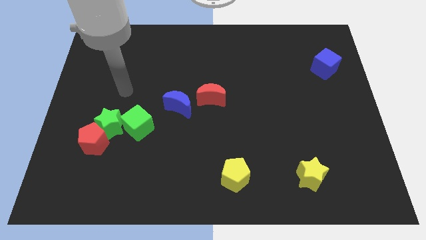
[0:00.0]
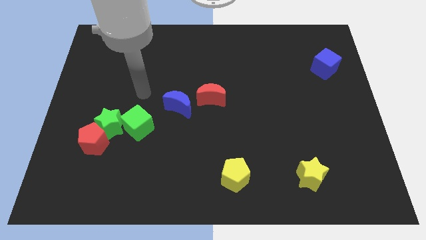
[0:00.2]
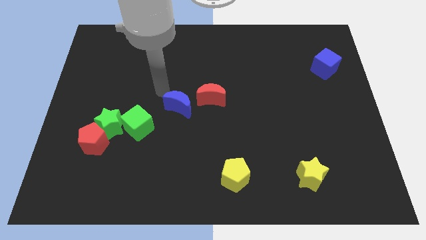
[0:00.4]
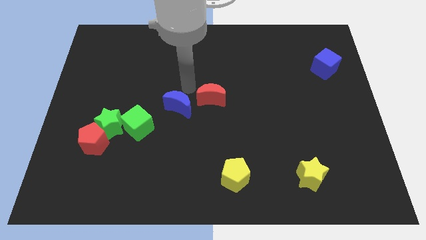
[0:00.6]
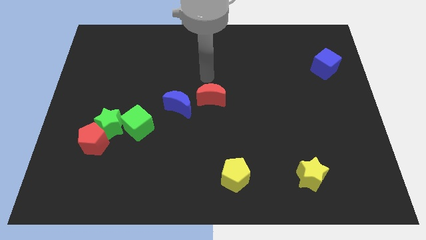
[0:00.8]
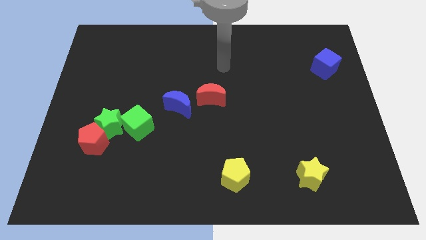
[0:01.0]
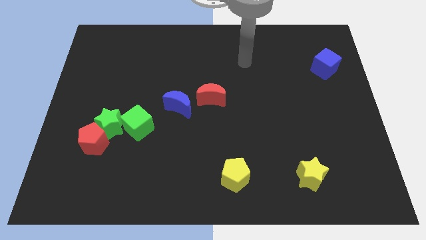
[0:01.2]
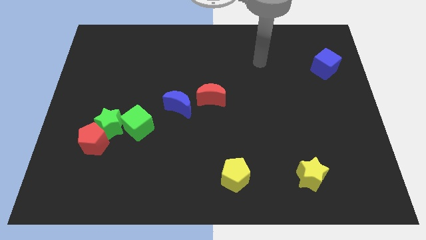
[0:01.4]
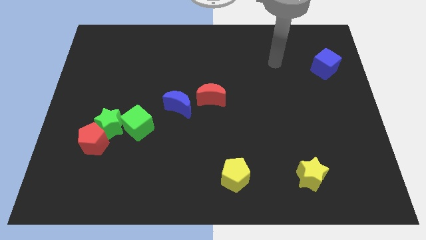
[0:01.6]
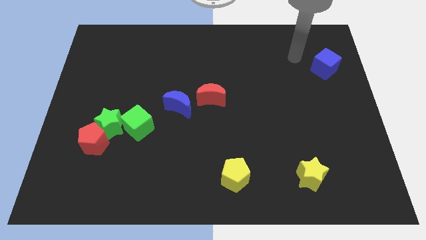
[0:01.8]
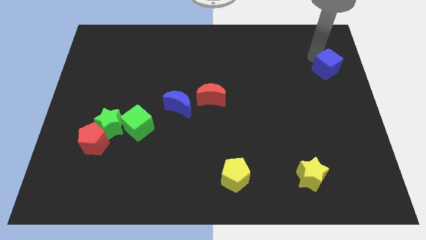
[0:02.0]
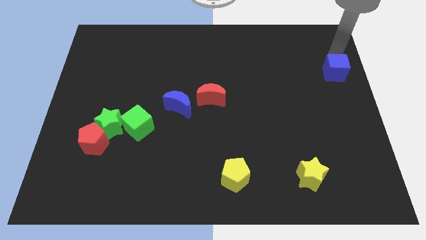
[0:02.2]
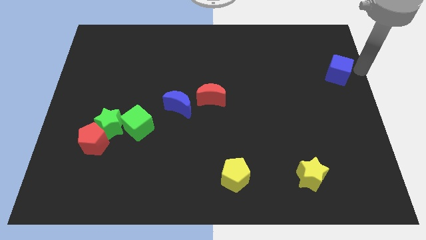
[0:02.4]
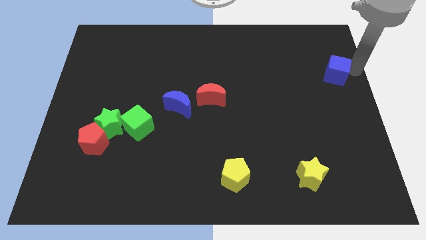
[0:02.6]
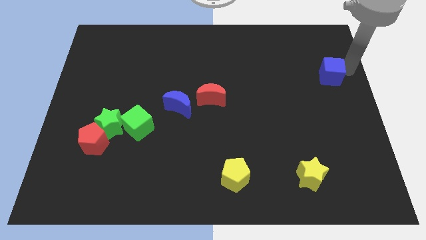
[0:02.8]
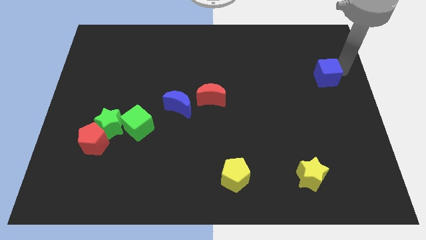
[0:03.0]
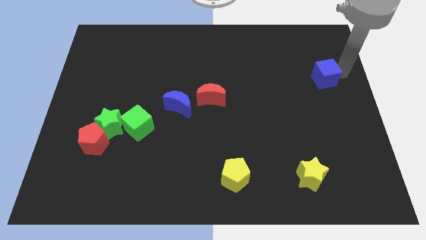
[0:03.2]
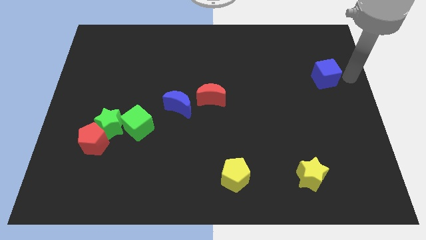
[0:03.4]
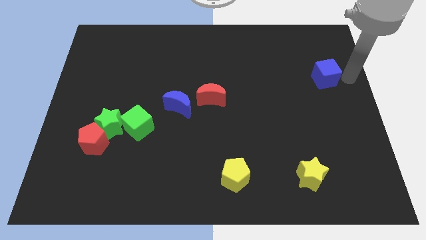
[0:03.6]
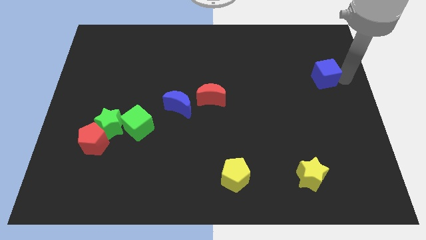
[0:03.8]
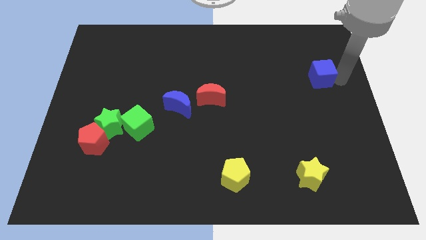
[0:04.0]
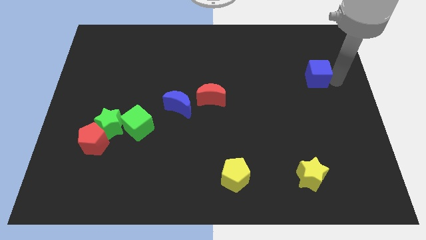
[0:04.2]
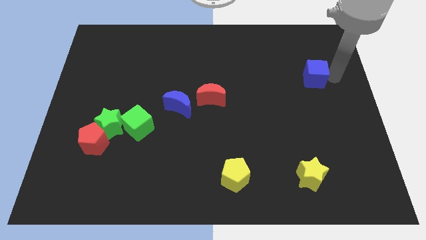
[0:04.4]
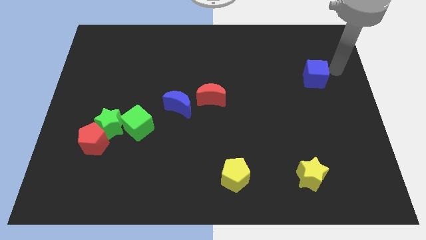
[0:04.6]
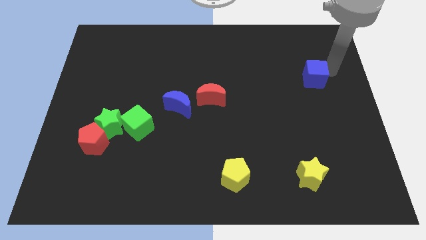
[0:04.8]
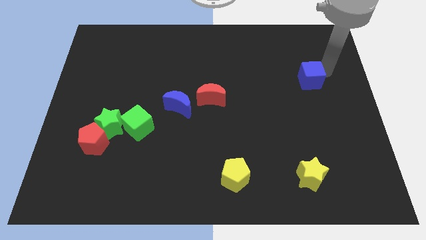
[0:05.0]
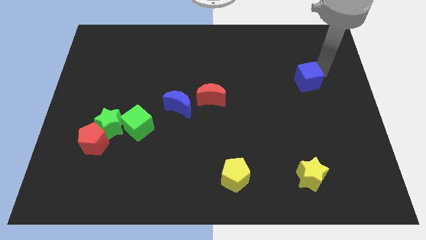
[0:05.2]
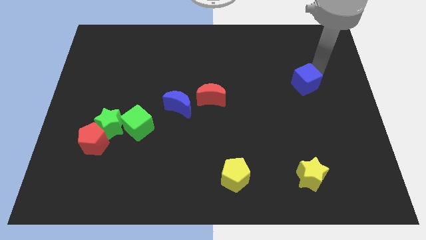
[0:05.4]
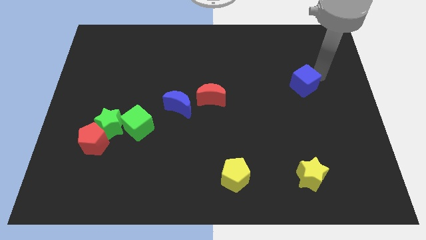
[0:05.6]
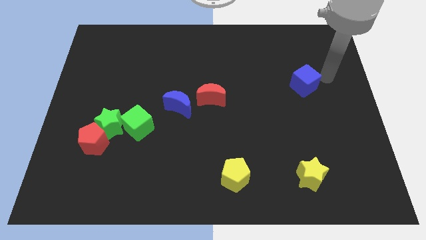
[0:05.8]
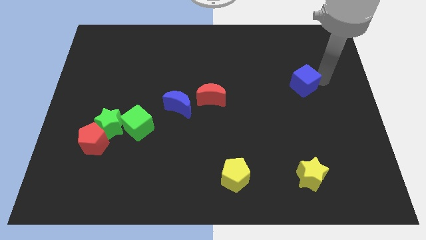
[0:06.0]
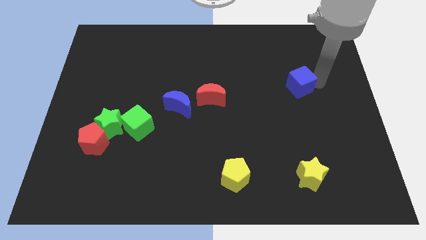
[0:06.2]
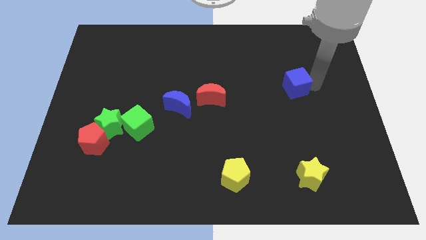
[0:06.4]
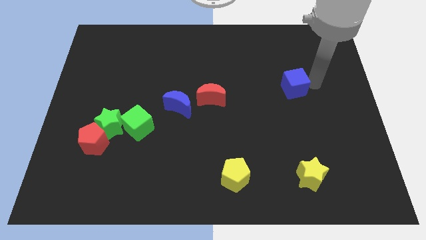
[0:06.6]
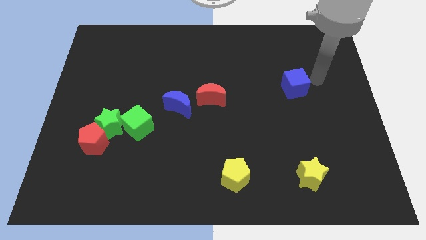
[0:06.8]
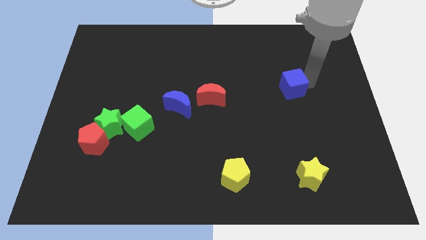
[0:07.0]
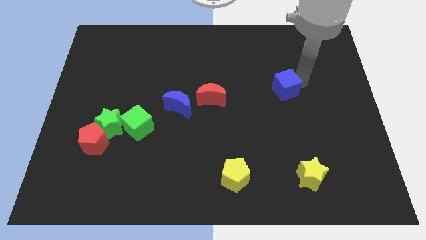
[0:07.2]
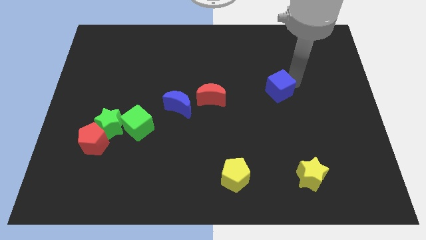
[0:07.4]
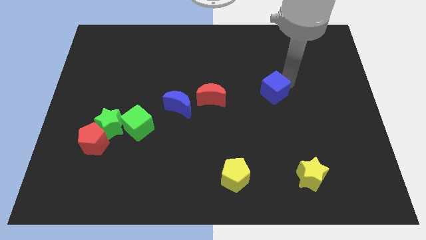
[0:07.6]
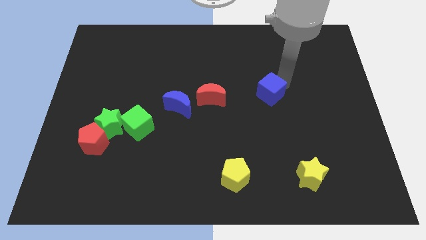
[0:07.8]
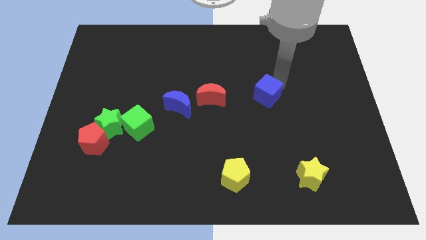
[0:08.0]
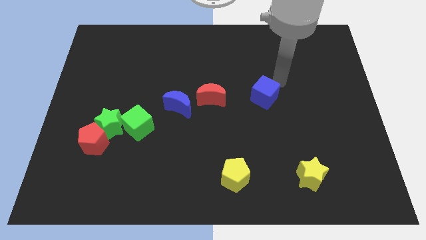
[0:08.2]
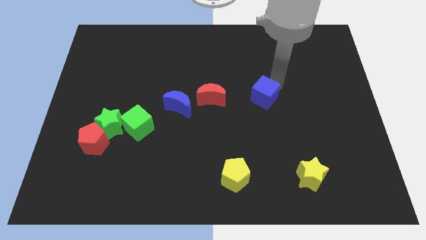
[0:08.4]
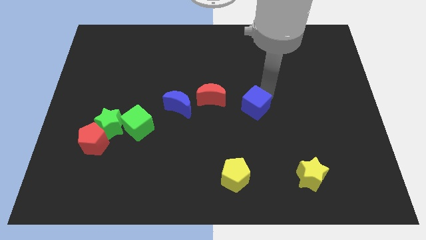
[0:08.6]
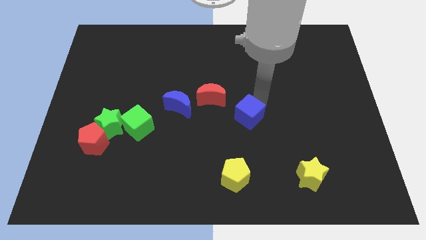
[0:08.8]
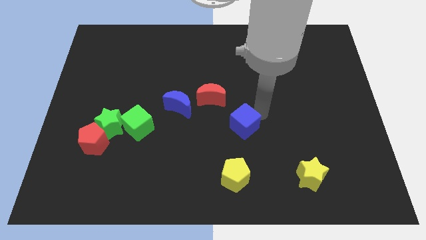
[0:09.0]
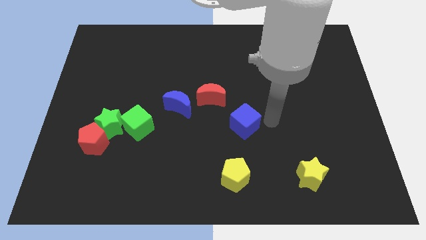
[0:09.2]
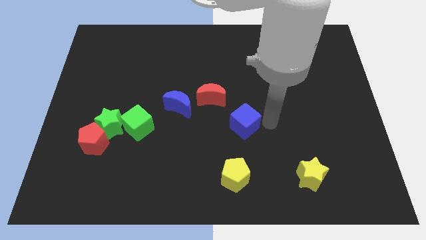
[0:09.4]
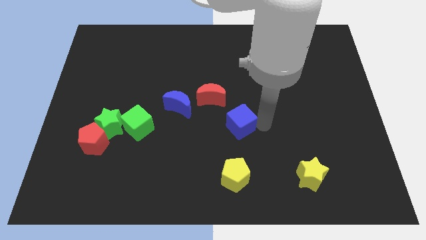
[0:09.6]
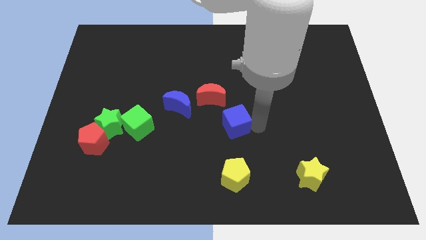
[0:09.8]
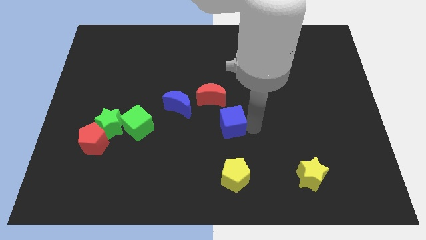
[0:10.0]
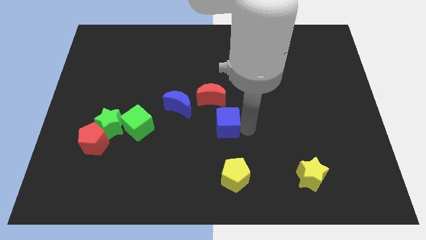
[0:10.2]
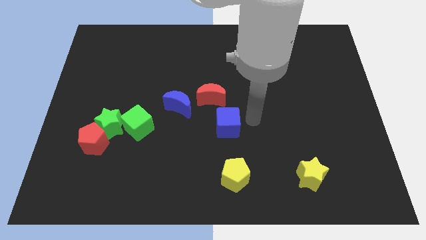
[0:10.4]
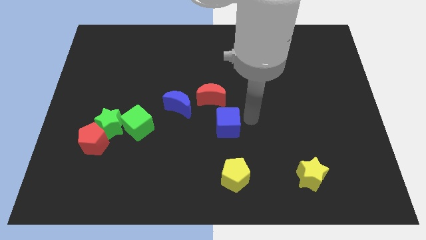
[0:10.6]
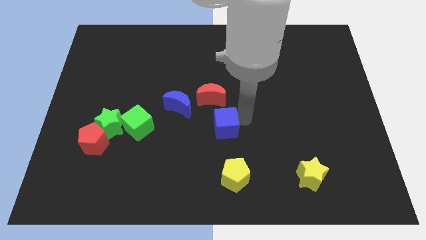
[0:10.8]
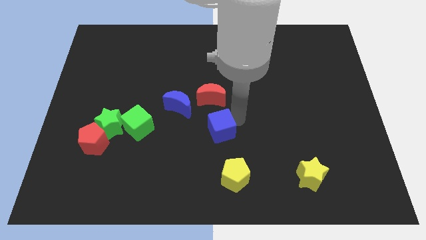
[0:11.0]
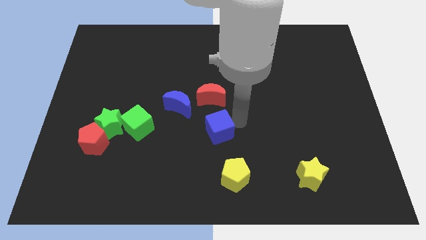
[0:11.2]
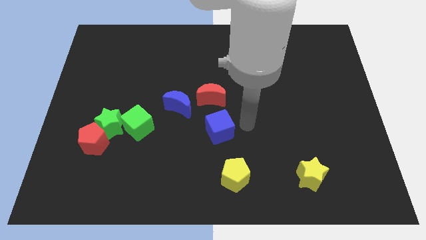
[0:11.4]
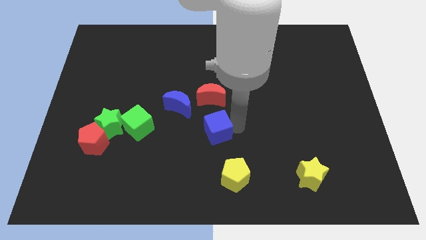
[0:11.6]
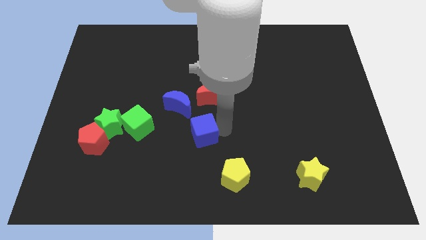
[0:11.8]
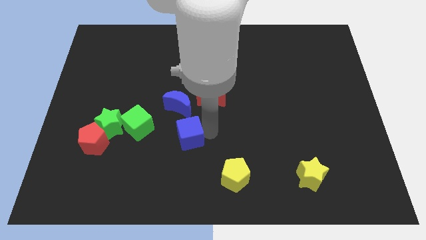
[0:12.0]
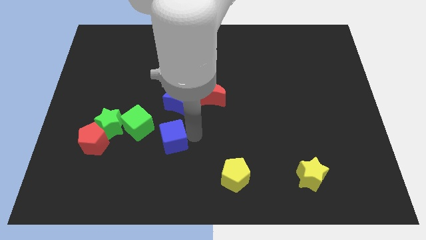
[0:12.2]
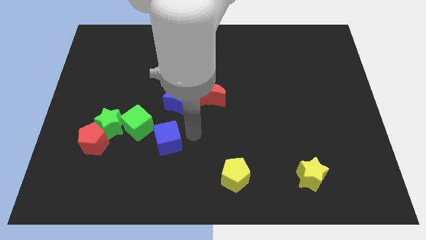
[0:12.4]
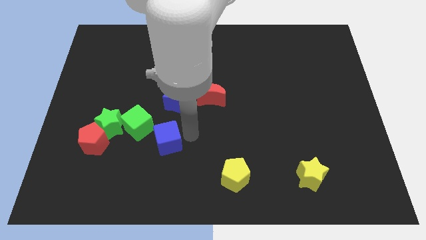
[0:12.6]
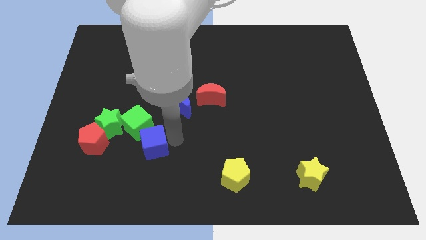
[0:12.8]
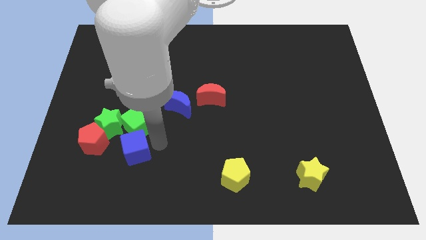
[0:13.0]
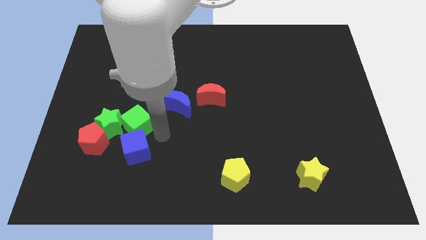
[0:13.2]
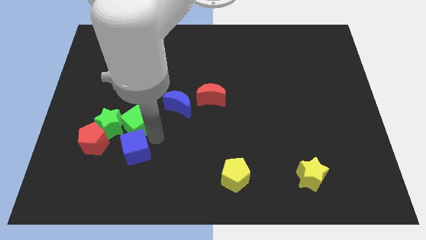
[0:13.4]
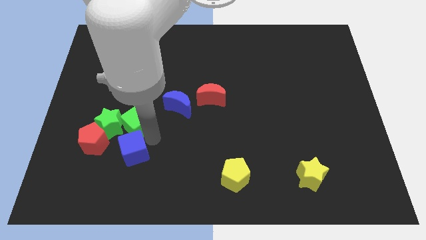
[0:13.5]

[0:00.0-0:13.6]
slide the blue cube to the bottom right side of the red pentagon
